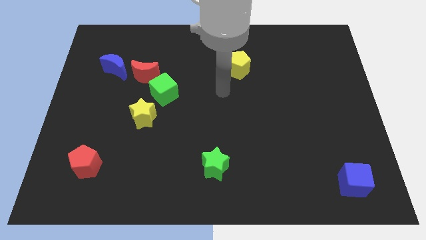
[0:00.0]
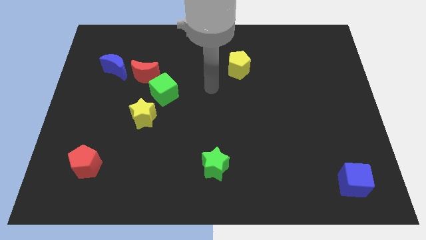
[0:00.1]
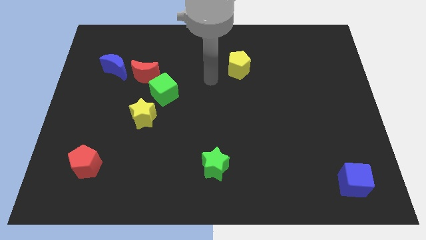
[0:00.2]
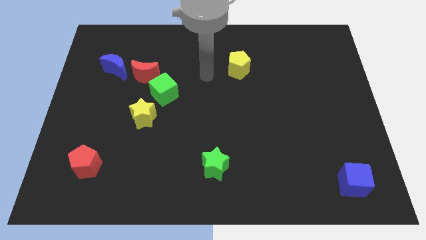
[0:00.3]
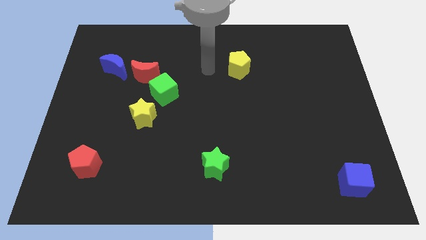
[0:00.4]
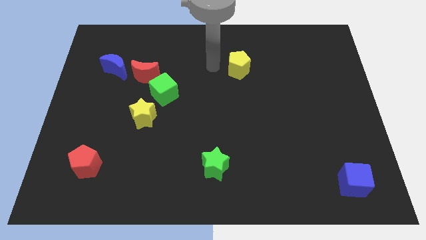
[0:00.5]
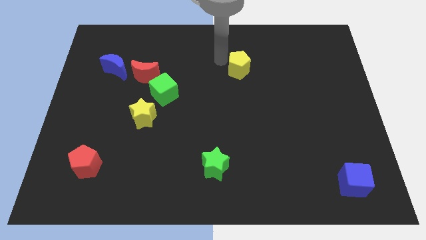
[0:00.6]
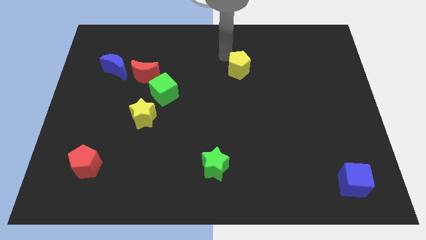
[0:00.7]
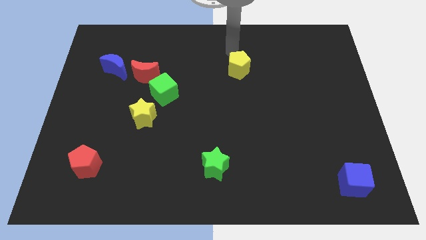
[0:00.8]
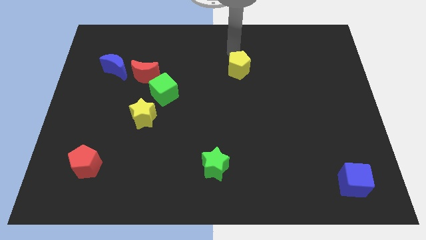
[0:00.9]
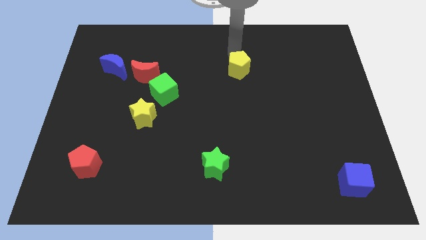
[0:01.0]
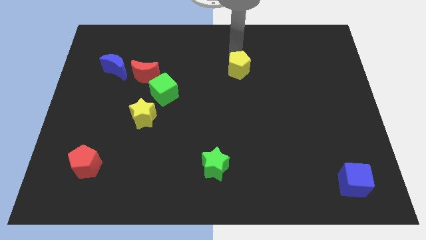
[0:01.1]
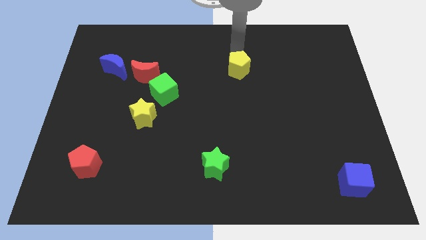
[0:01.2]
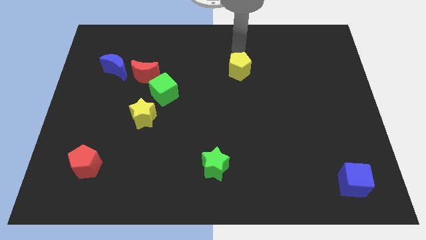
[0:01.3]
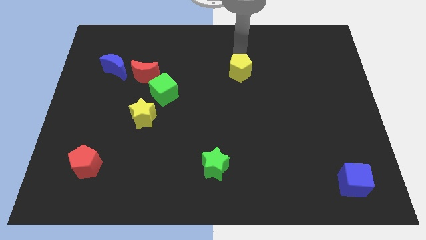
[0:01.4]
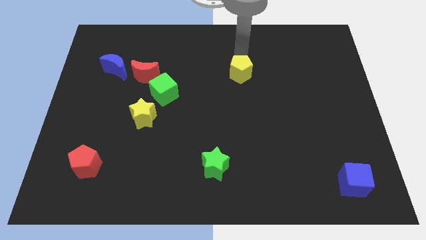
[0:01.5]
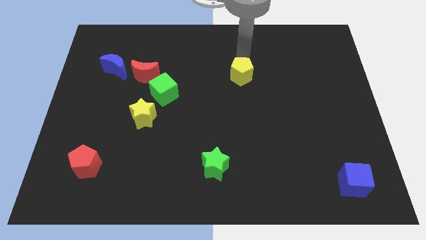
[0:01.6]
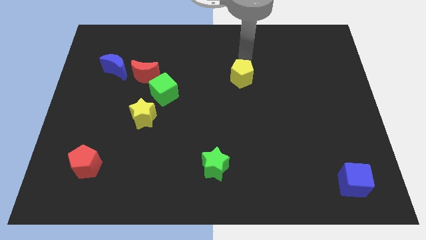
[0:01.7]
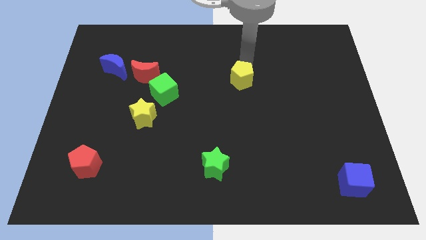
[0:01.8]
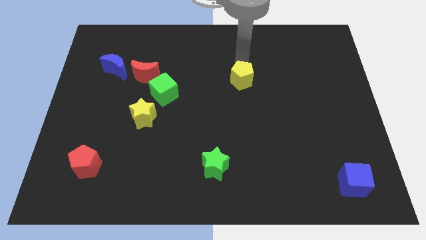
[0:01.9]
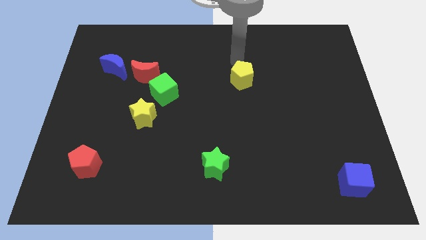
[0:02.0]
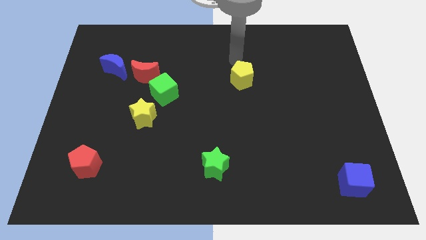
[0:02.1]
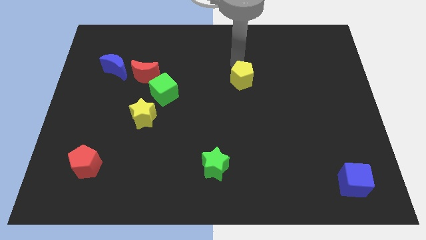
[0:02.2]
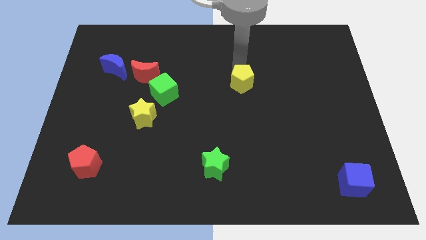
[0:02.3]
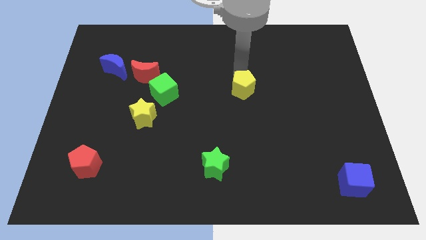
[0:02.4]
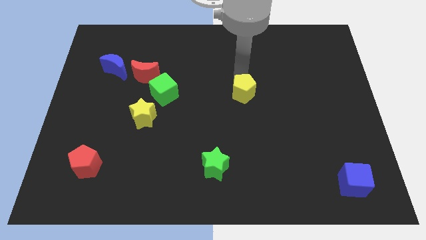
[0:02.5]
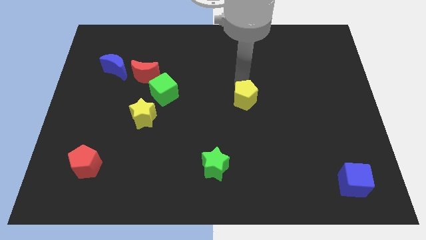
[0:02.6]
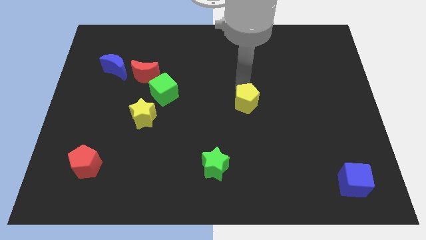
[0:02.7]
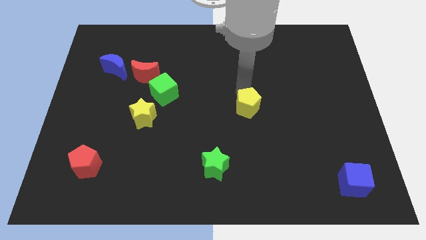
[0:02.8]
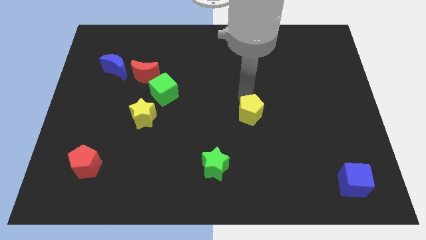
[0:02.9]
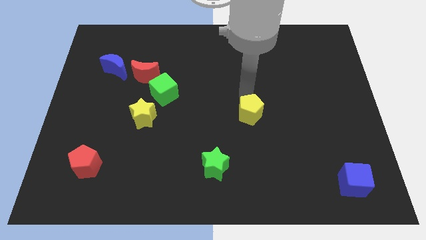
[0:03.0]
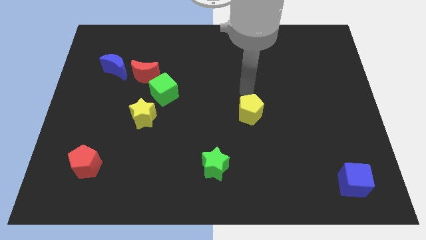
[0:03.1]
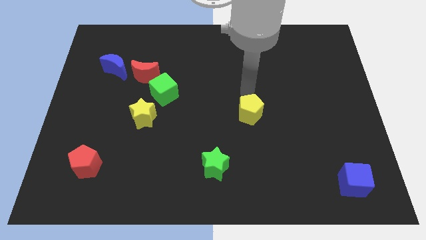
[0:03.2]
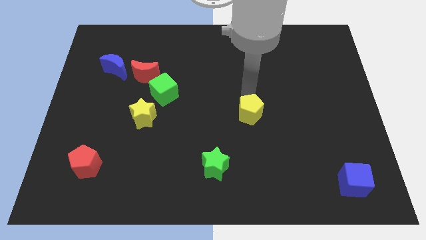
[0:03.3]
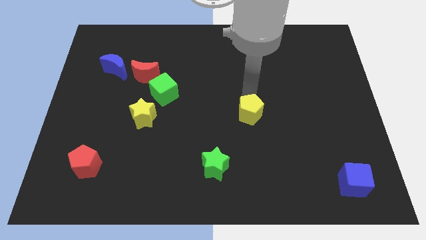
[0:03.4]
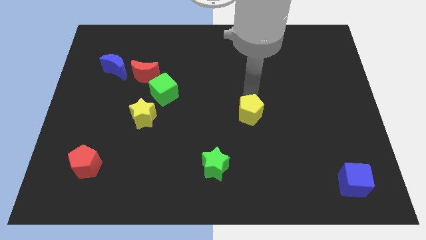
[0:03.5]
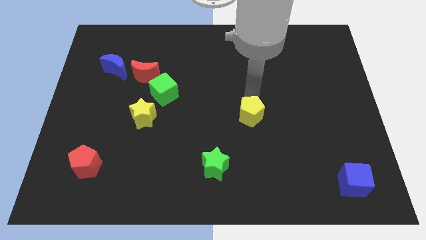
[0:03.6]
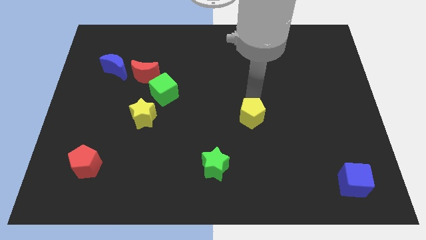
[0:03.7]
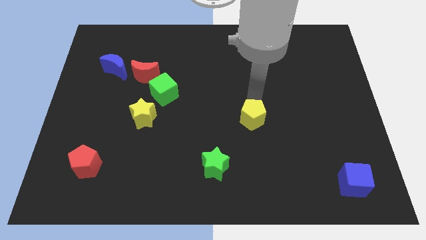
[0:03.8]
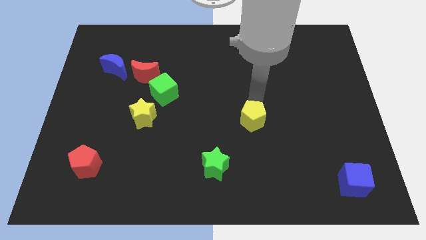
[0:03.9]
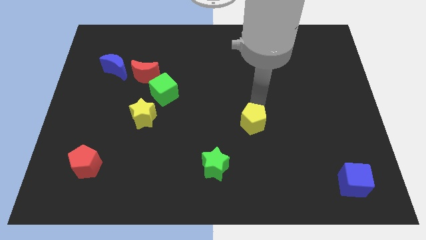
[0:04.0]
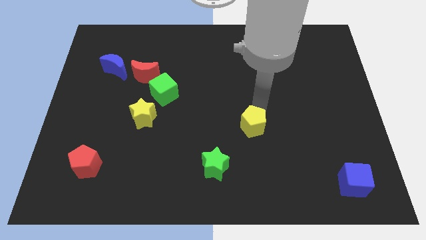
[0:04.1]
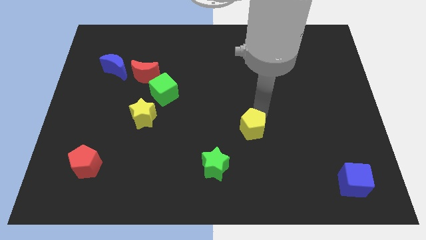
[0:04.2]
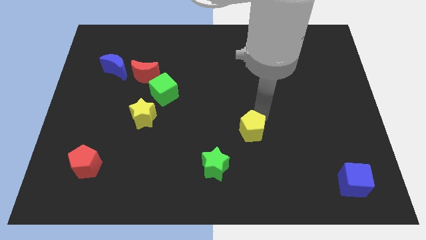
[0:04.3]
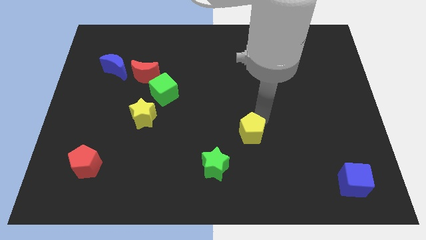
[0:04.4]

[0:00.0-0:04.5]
move the yellow pentagon down

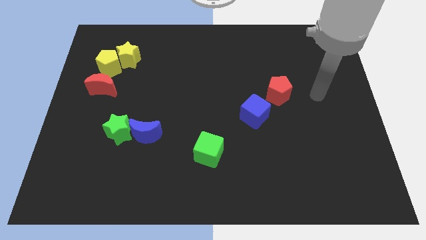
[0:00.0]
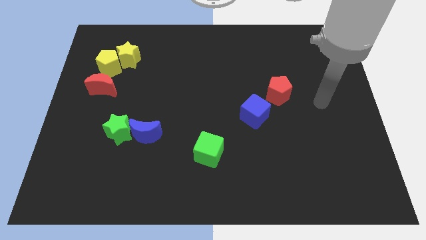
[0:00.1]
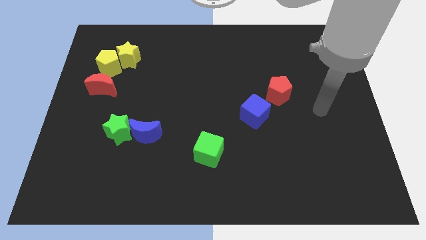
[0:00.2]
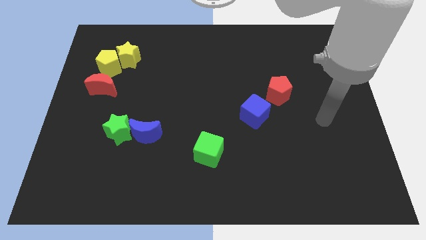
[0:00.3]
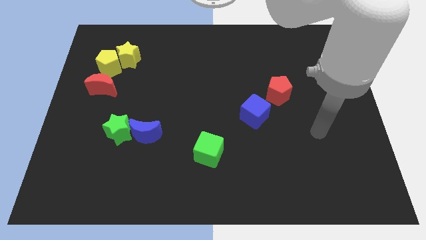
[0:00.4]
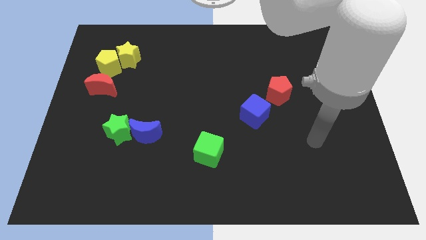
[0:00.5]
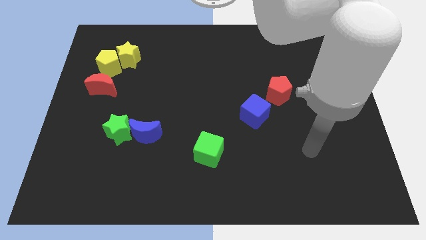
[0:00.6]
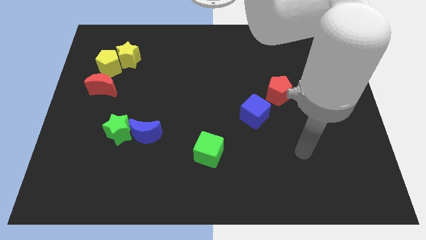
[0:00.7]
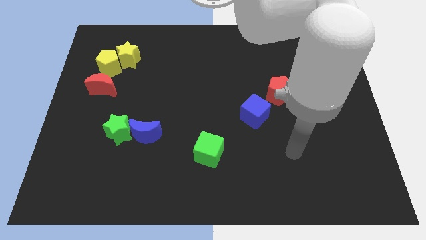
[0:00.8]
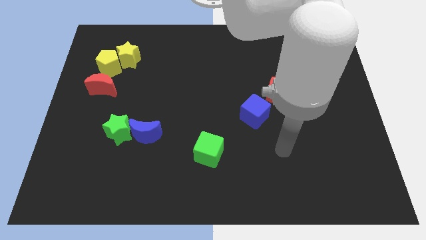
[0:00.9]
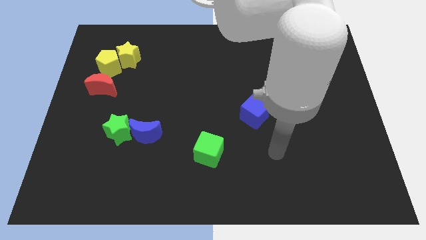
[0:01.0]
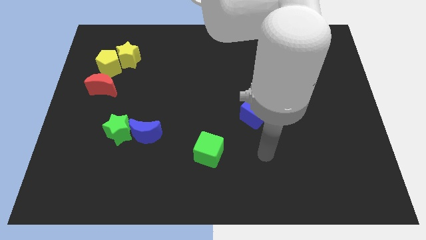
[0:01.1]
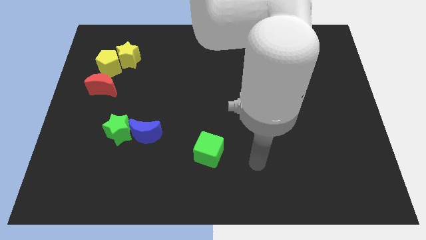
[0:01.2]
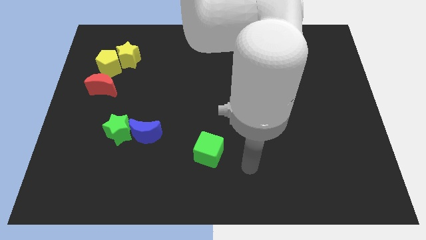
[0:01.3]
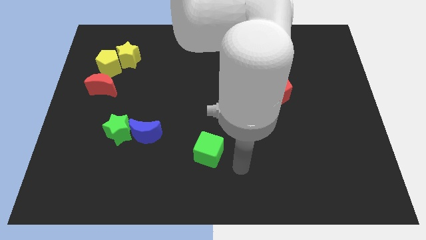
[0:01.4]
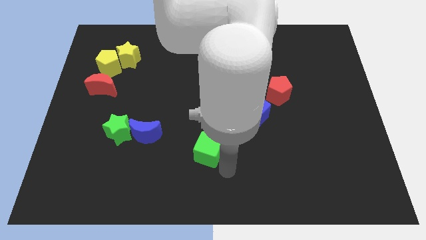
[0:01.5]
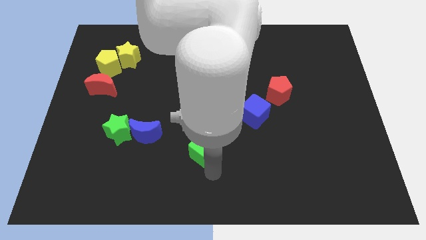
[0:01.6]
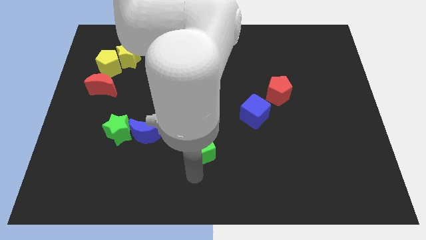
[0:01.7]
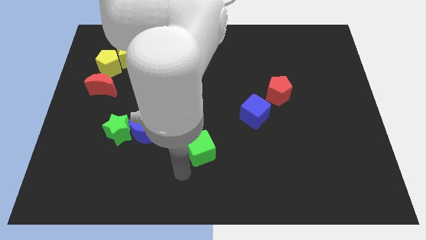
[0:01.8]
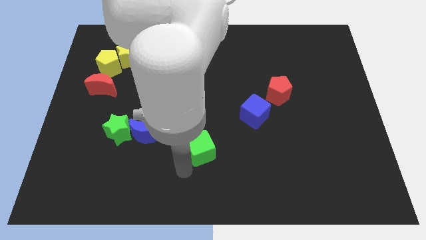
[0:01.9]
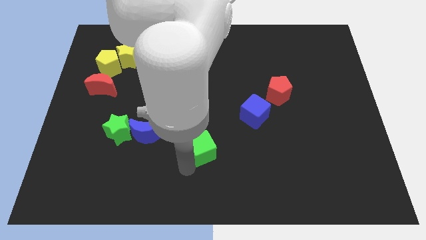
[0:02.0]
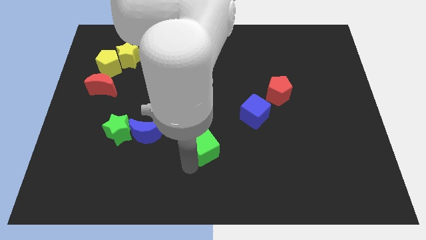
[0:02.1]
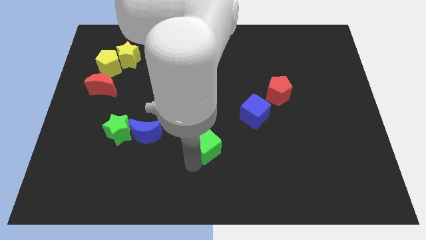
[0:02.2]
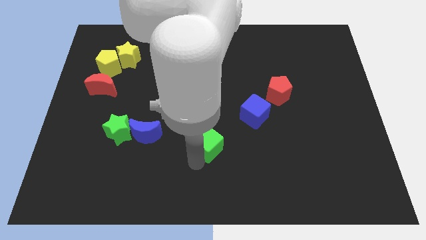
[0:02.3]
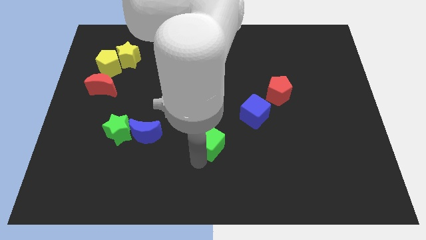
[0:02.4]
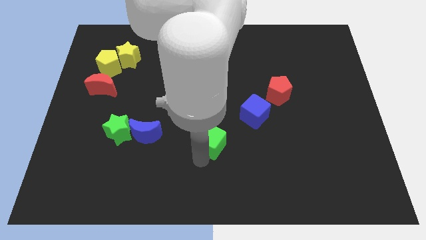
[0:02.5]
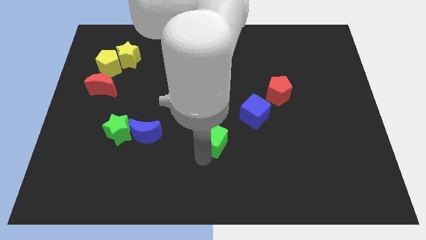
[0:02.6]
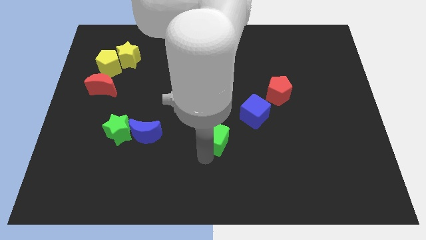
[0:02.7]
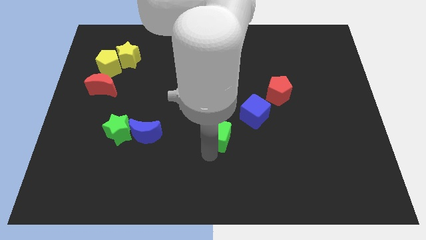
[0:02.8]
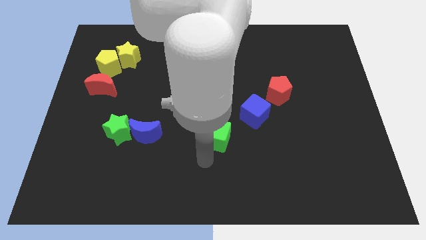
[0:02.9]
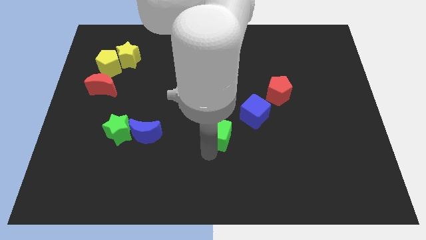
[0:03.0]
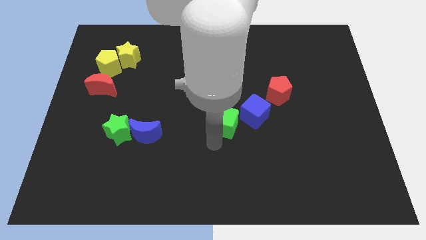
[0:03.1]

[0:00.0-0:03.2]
move the green cube somewhat up and to the right

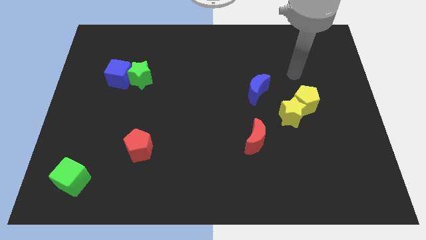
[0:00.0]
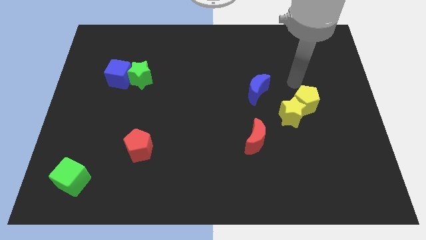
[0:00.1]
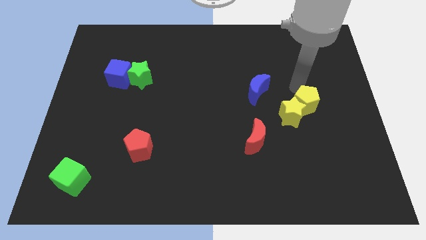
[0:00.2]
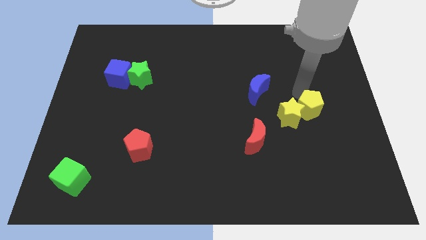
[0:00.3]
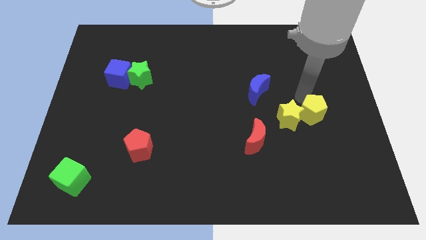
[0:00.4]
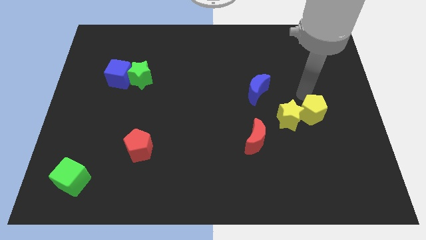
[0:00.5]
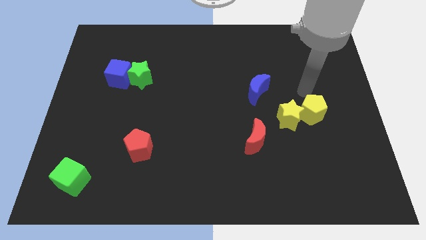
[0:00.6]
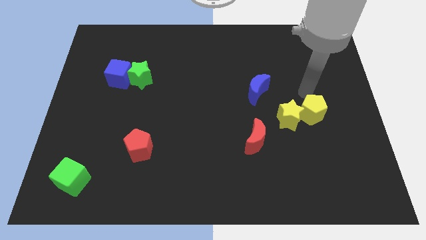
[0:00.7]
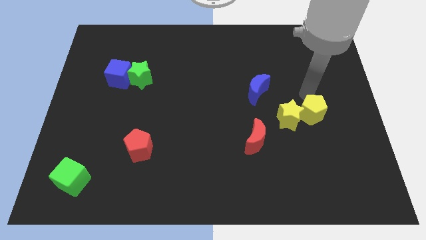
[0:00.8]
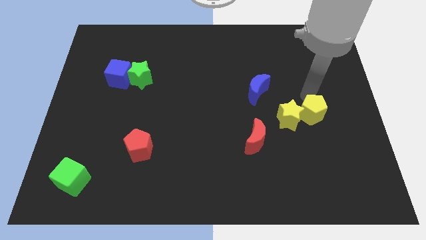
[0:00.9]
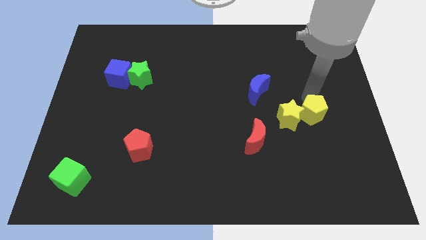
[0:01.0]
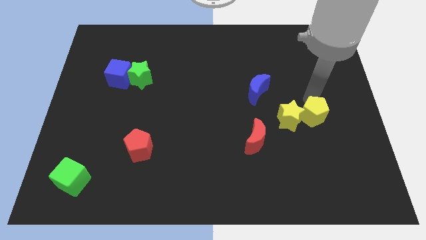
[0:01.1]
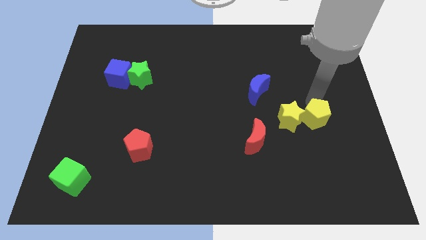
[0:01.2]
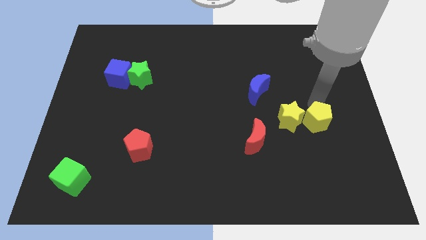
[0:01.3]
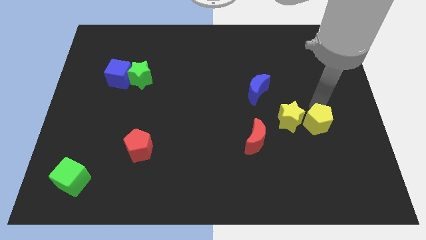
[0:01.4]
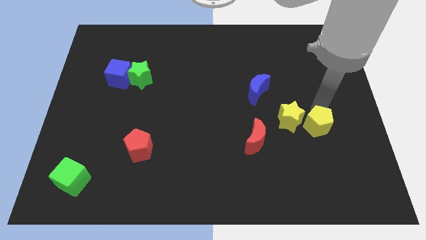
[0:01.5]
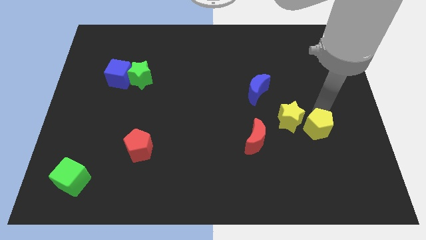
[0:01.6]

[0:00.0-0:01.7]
slightly move the yellow pentagon down
